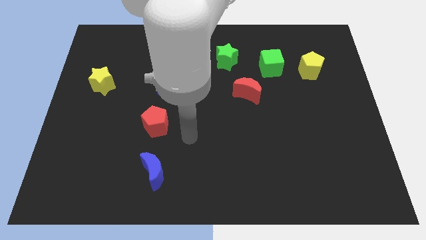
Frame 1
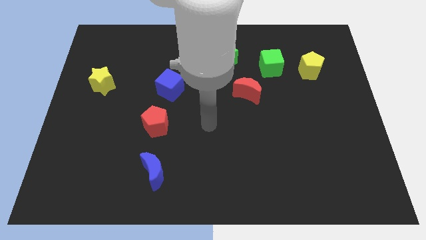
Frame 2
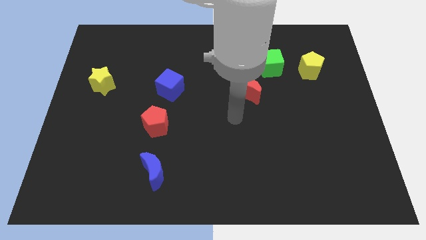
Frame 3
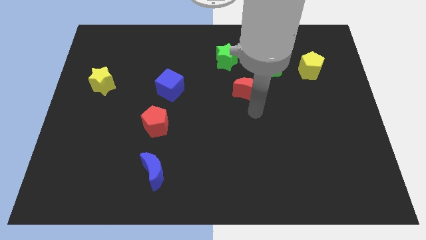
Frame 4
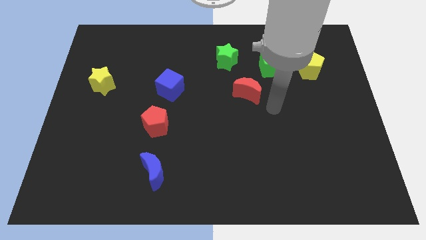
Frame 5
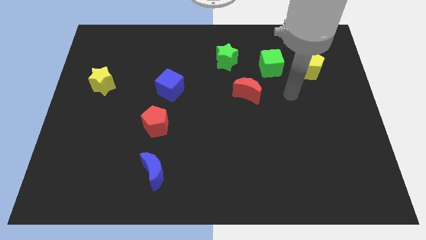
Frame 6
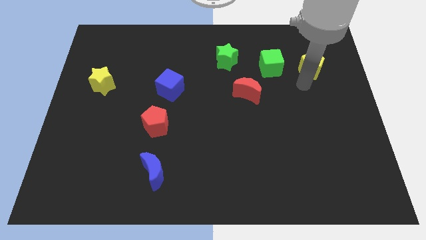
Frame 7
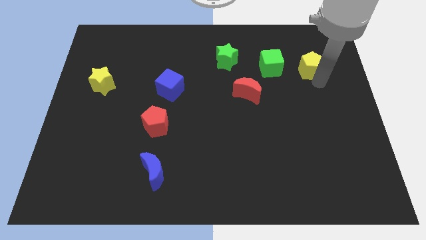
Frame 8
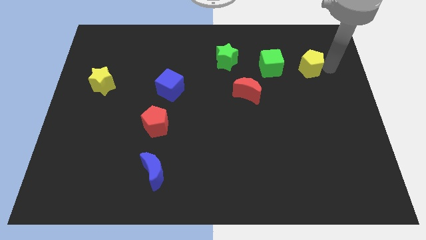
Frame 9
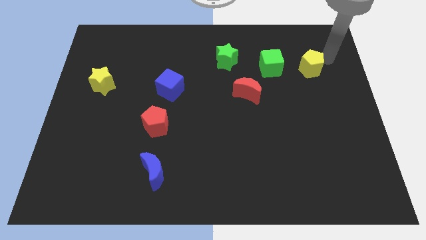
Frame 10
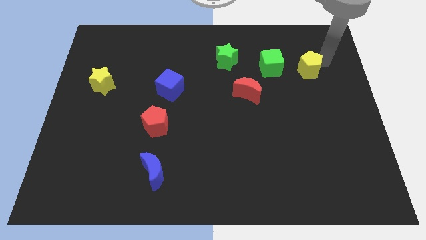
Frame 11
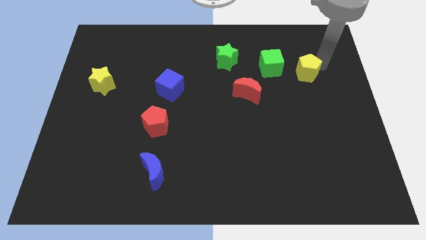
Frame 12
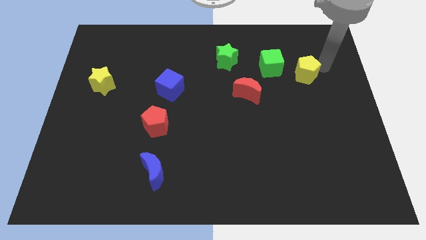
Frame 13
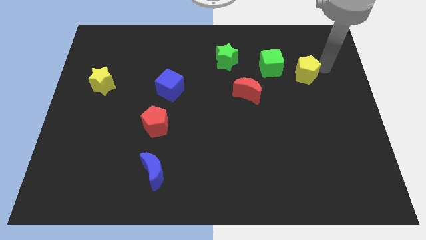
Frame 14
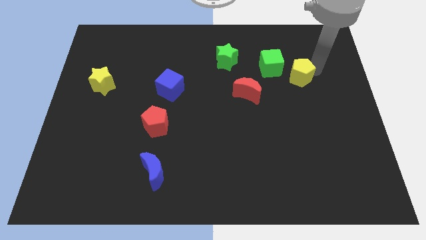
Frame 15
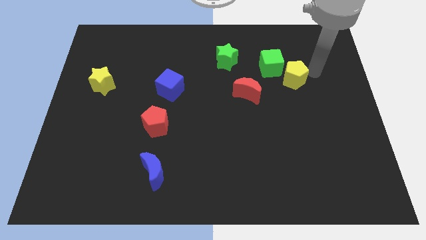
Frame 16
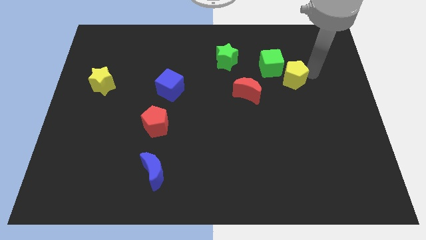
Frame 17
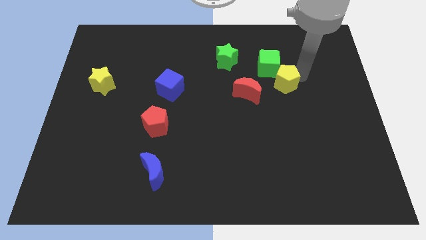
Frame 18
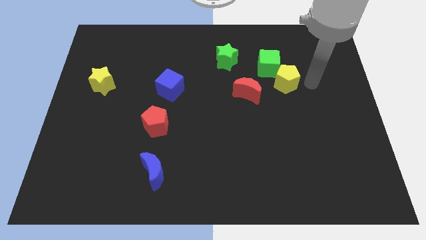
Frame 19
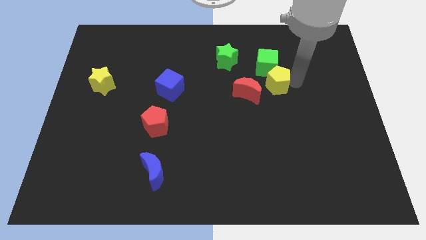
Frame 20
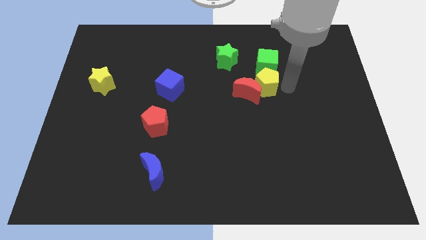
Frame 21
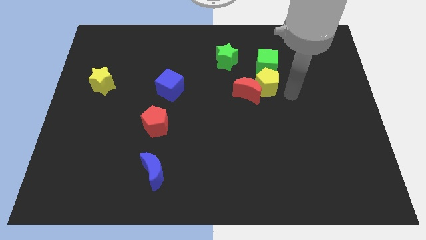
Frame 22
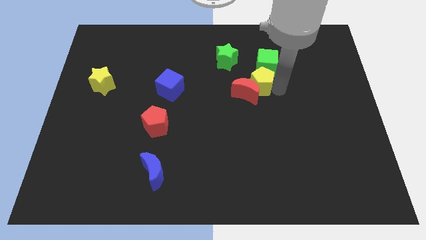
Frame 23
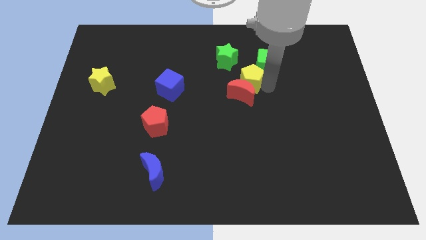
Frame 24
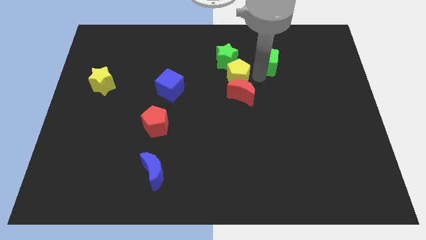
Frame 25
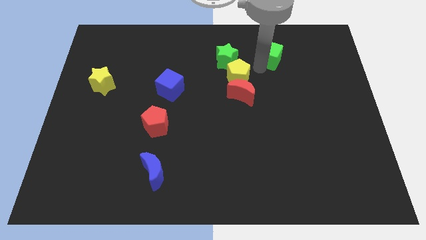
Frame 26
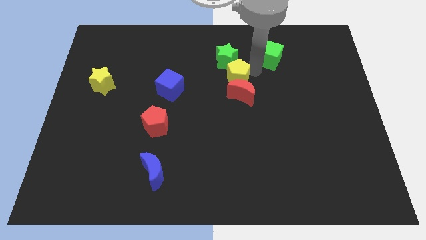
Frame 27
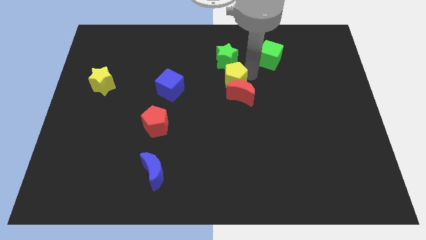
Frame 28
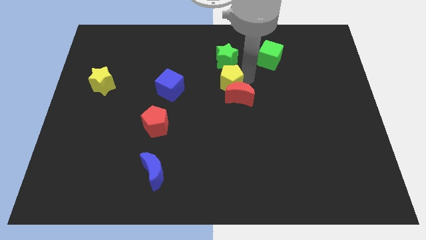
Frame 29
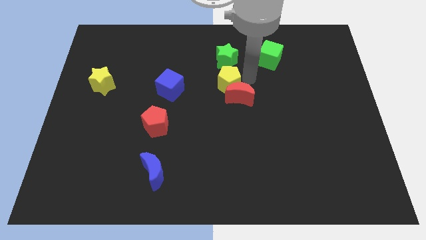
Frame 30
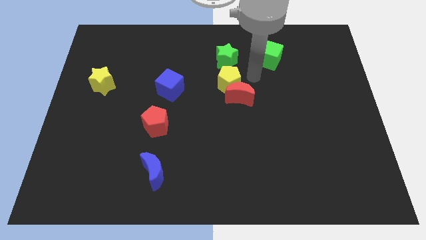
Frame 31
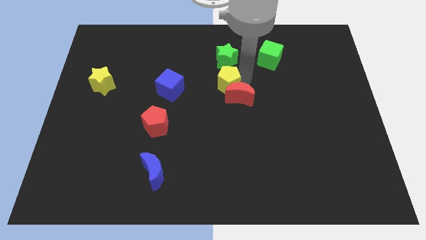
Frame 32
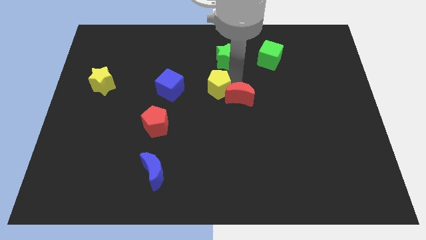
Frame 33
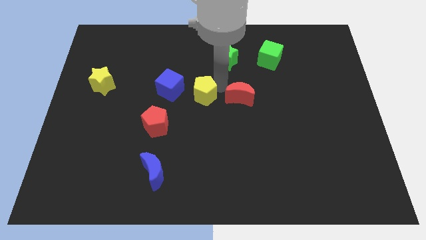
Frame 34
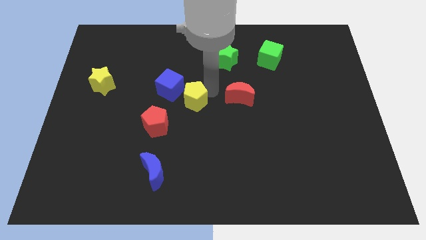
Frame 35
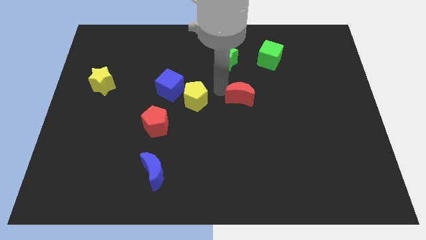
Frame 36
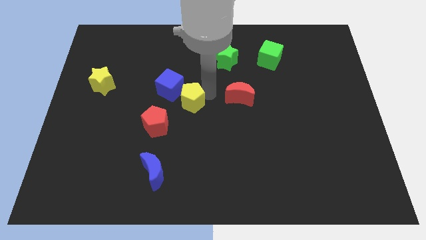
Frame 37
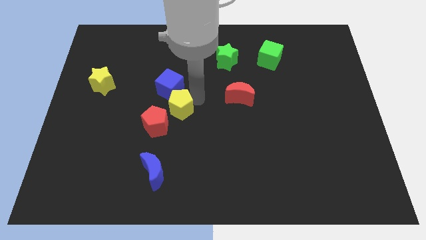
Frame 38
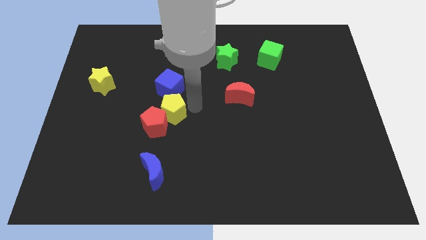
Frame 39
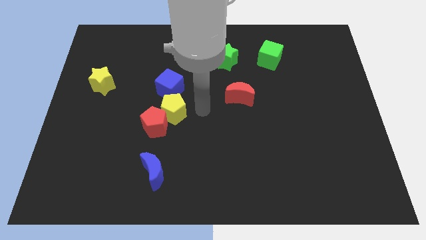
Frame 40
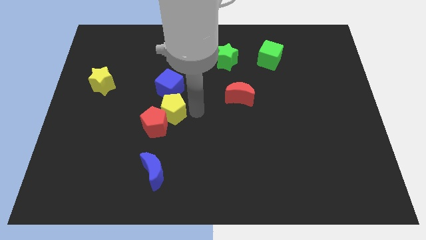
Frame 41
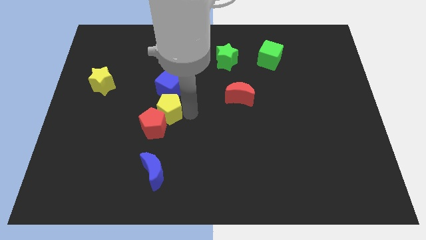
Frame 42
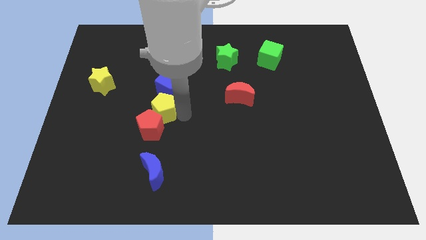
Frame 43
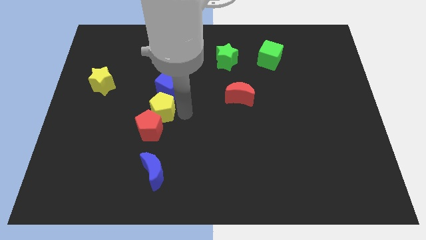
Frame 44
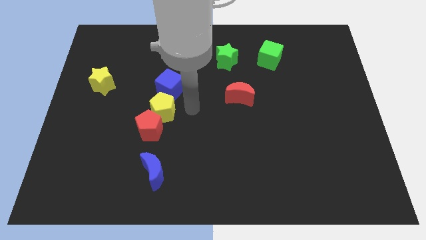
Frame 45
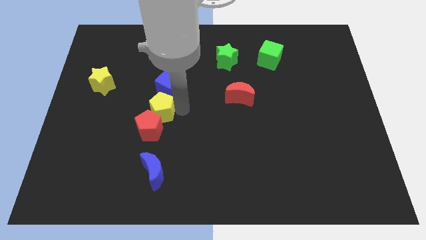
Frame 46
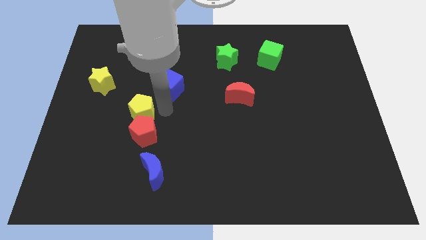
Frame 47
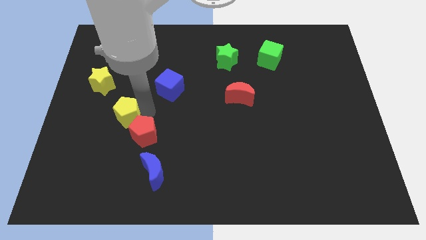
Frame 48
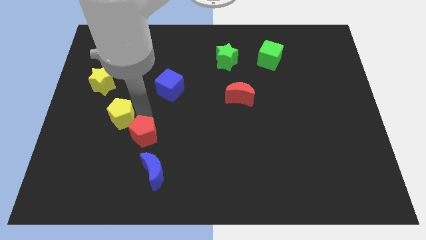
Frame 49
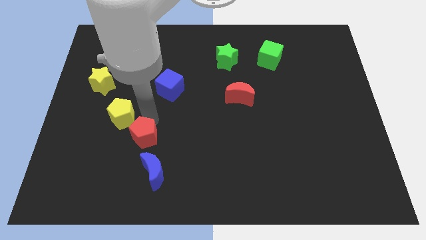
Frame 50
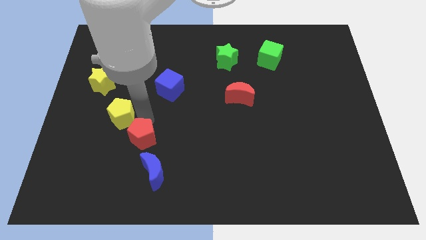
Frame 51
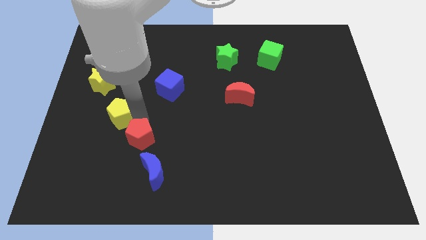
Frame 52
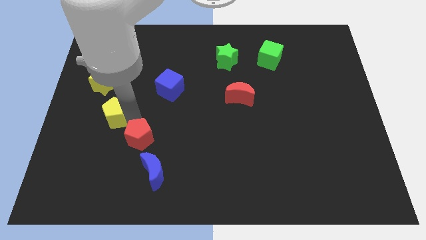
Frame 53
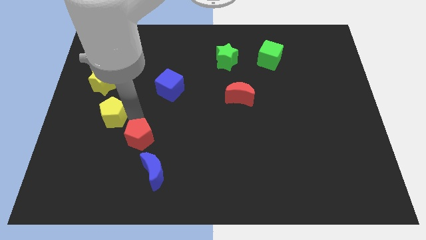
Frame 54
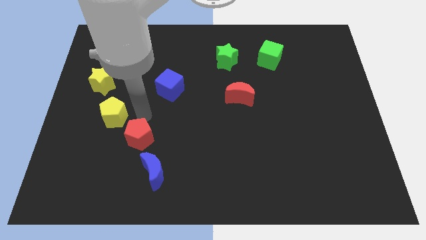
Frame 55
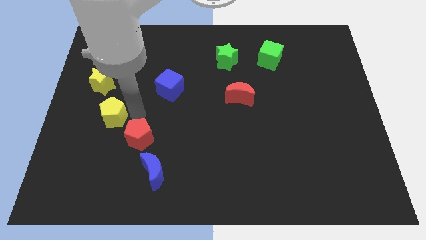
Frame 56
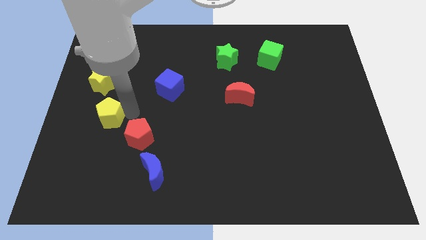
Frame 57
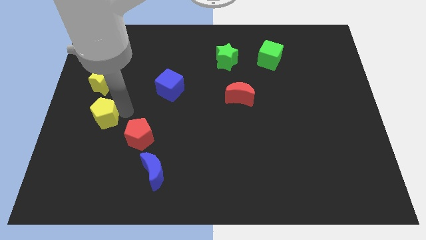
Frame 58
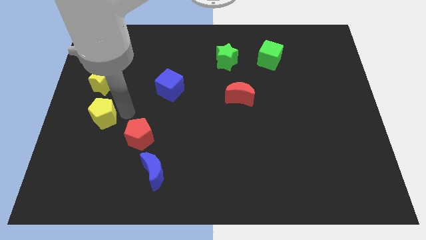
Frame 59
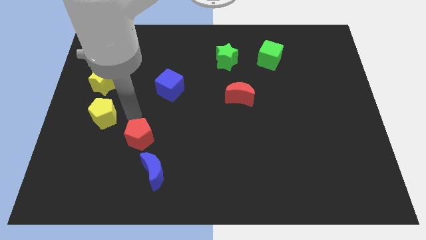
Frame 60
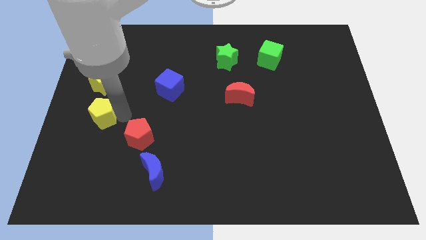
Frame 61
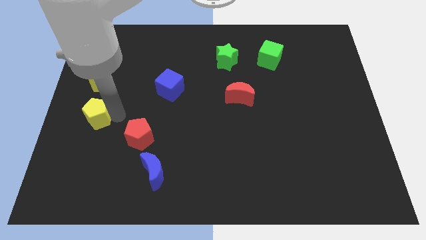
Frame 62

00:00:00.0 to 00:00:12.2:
push the yellow pentagon to the center left

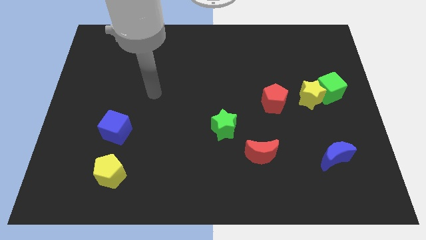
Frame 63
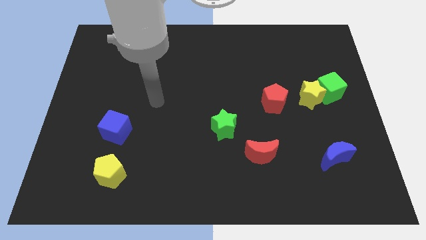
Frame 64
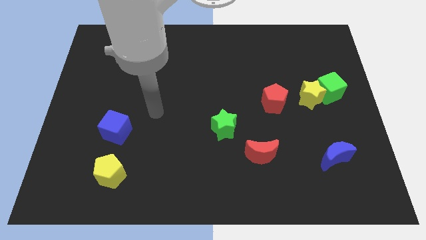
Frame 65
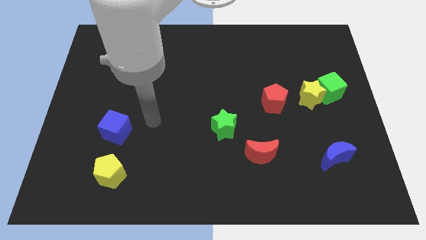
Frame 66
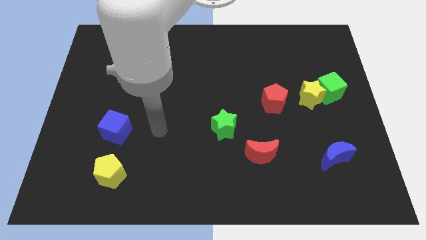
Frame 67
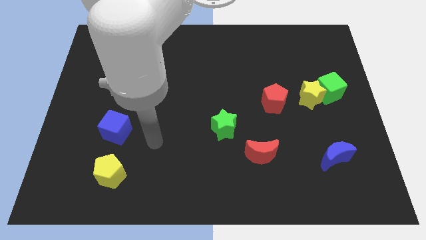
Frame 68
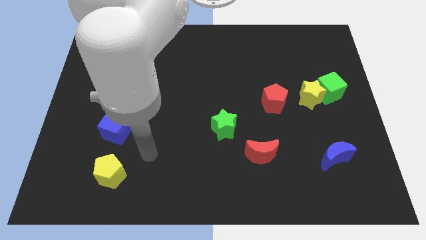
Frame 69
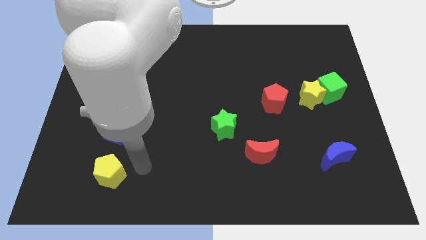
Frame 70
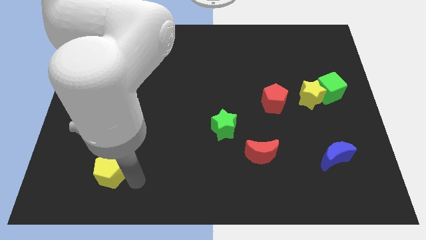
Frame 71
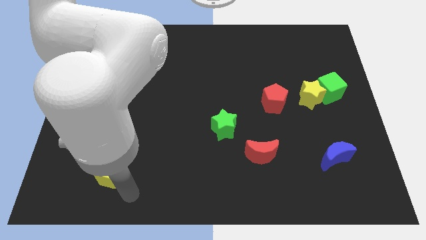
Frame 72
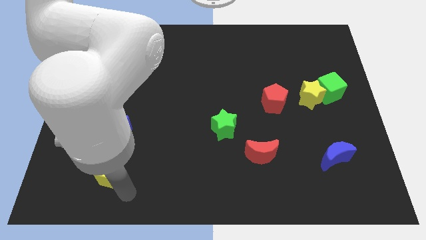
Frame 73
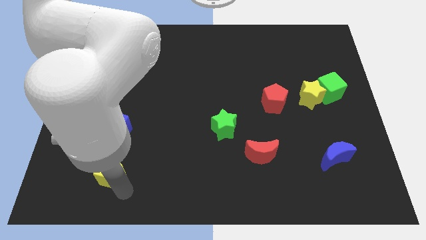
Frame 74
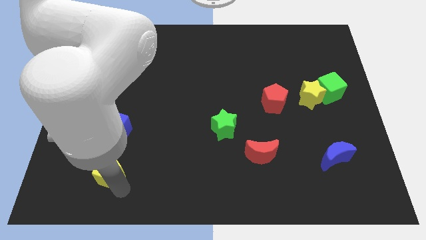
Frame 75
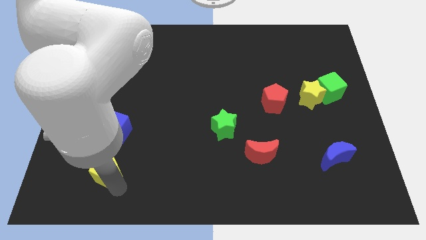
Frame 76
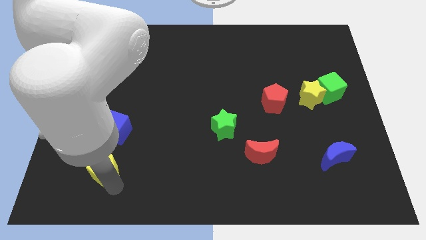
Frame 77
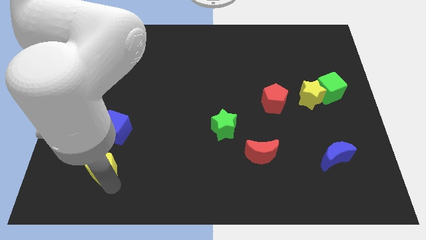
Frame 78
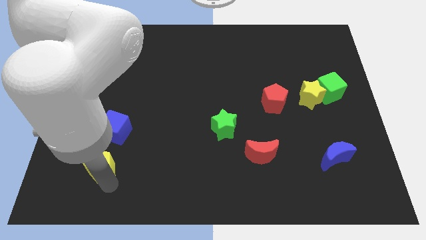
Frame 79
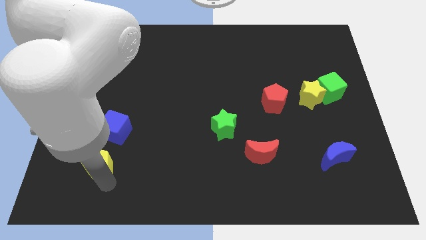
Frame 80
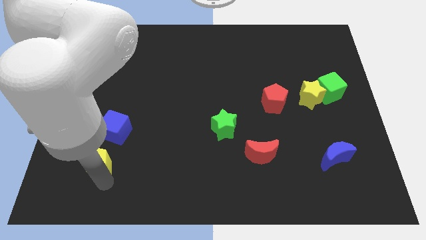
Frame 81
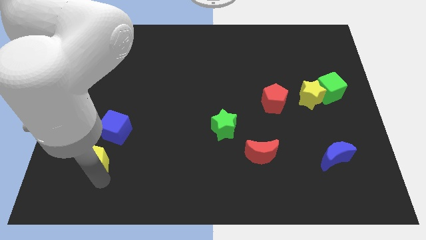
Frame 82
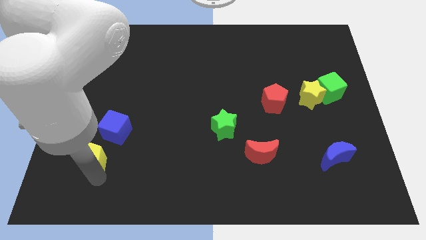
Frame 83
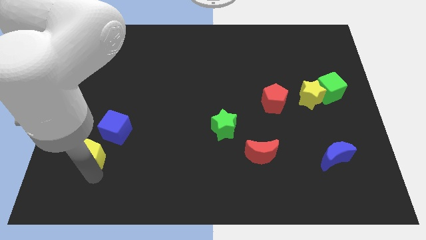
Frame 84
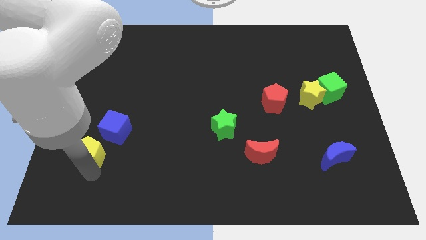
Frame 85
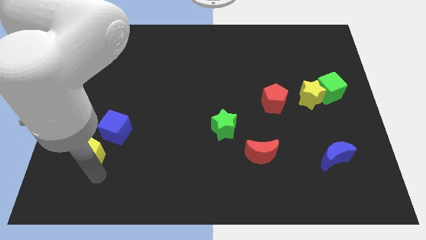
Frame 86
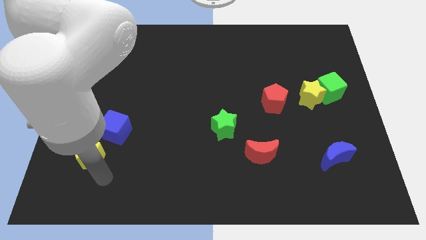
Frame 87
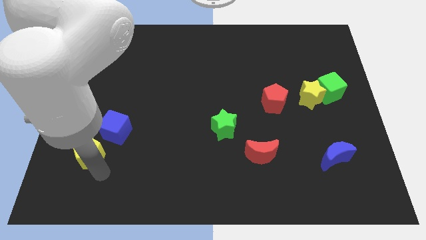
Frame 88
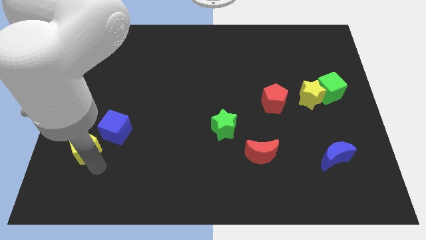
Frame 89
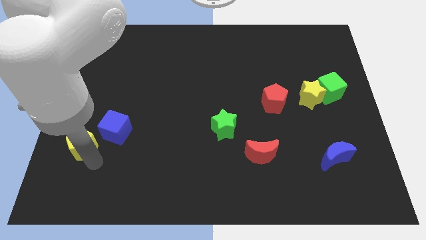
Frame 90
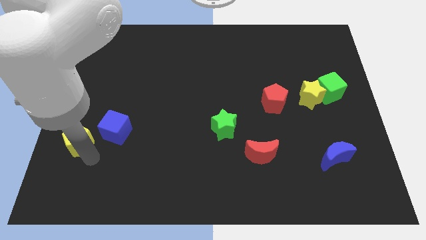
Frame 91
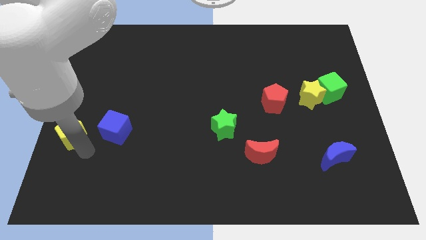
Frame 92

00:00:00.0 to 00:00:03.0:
slide the yellow pentagon to the left side
